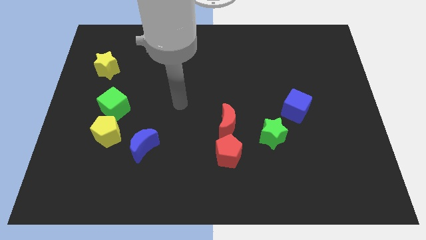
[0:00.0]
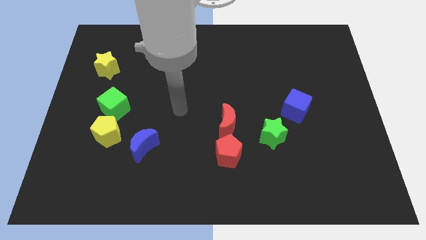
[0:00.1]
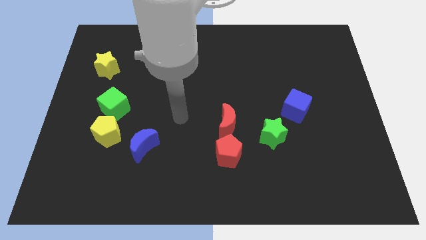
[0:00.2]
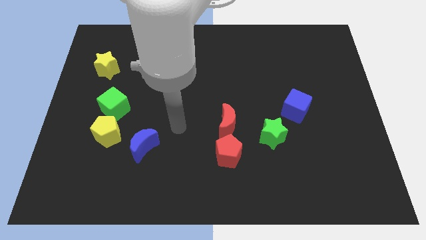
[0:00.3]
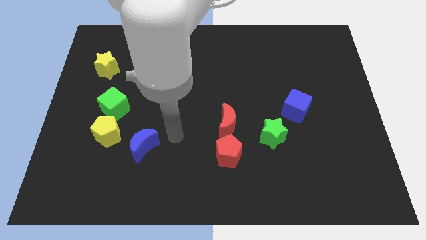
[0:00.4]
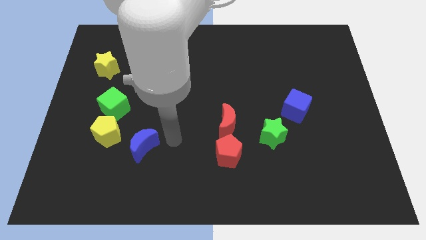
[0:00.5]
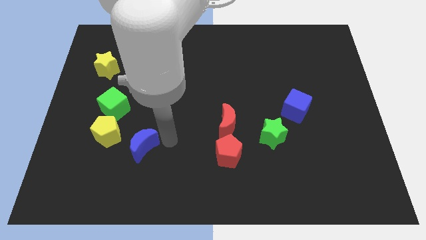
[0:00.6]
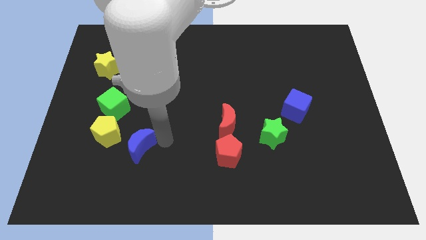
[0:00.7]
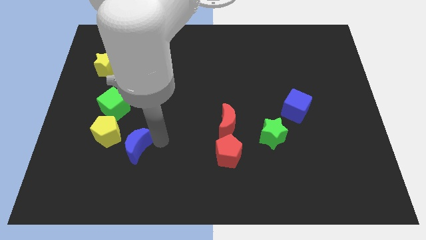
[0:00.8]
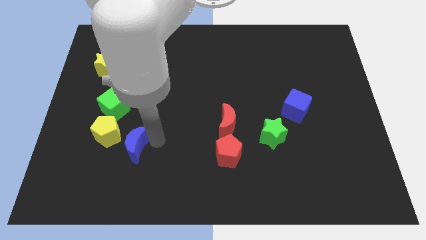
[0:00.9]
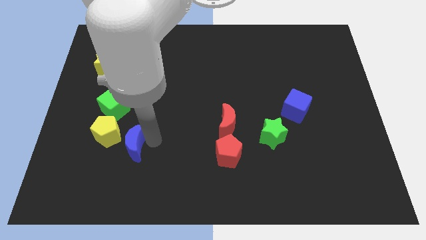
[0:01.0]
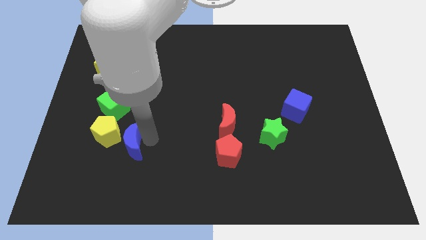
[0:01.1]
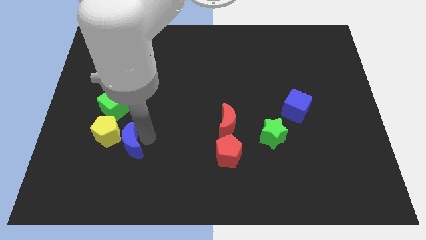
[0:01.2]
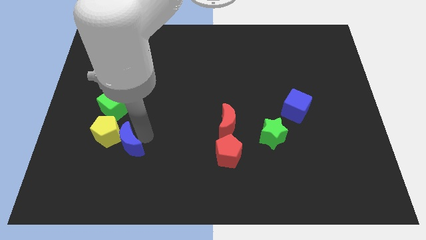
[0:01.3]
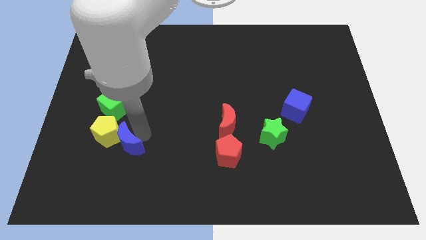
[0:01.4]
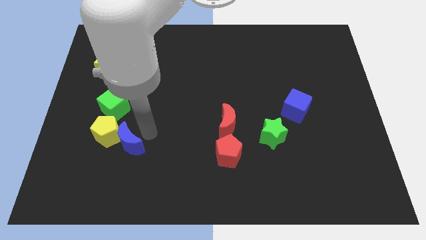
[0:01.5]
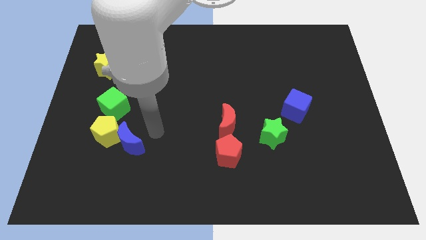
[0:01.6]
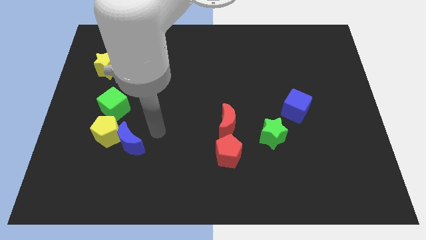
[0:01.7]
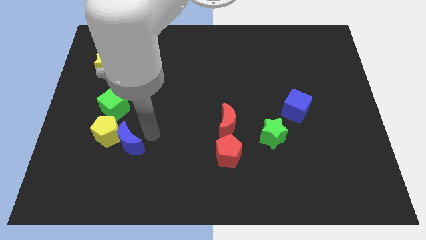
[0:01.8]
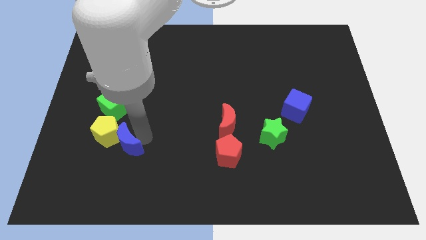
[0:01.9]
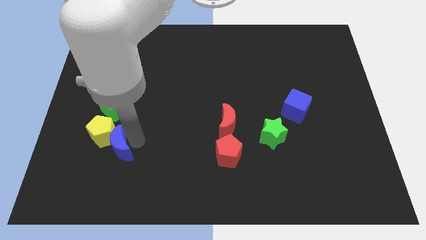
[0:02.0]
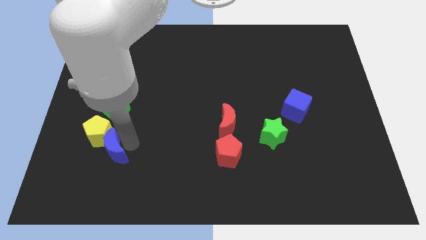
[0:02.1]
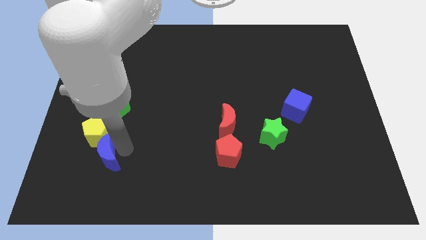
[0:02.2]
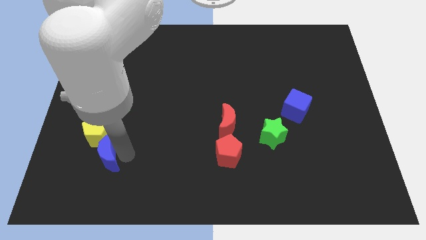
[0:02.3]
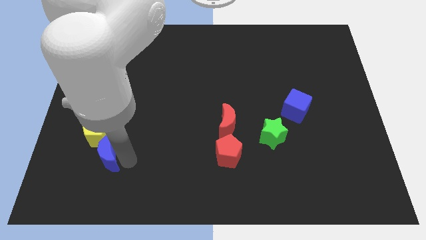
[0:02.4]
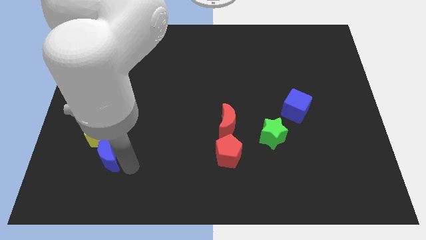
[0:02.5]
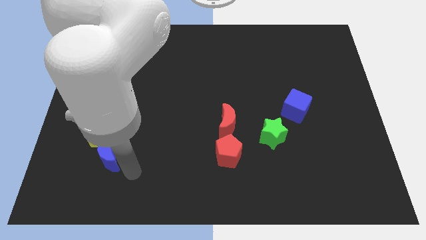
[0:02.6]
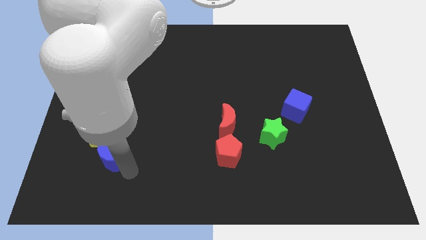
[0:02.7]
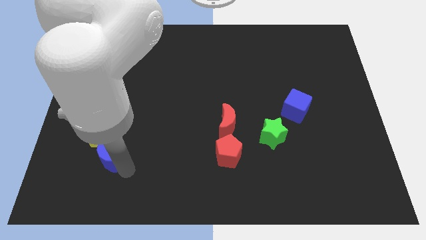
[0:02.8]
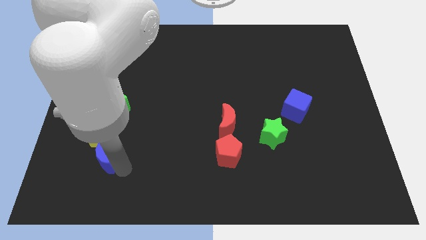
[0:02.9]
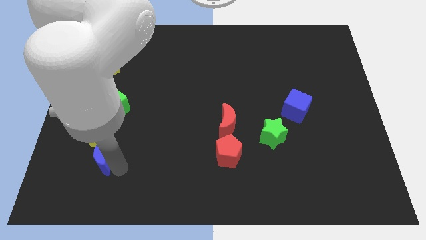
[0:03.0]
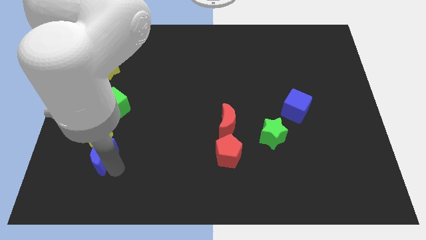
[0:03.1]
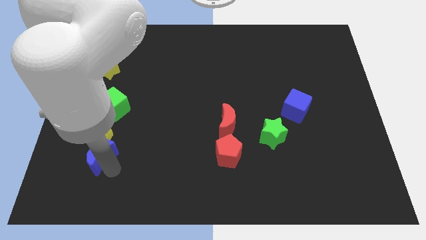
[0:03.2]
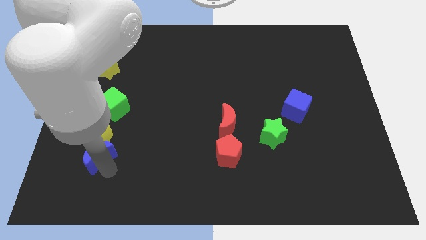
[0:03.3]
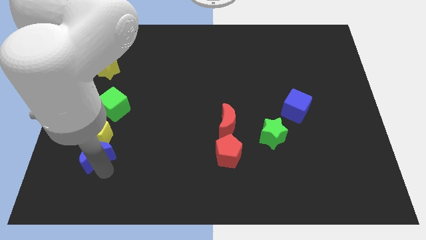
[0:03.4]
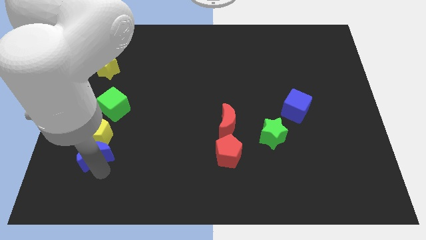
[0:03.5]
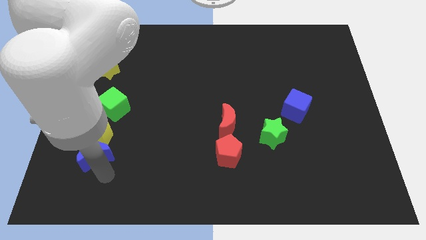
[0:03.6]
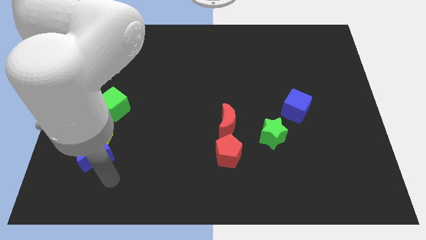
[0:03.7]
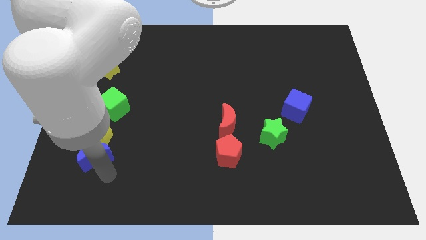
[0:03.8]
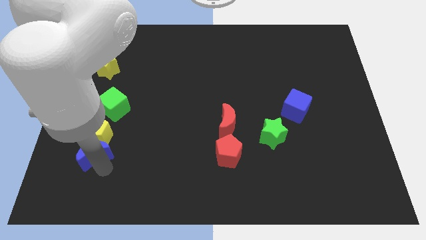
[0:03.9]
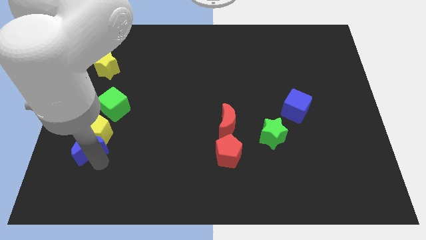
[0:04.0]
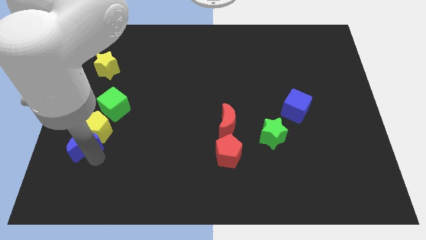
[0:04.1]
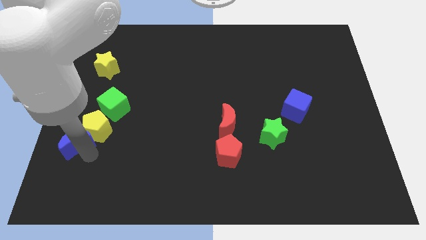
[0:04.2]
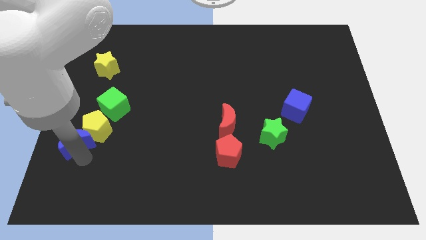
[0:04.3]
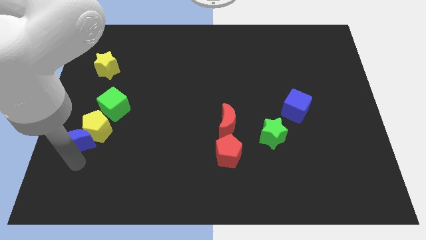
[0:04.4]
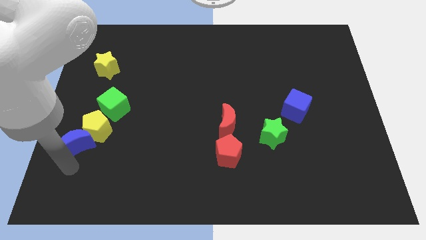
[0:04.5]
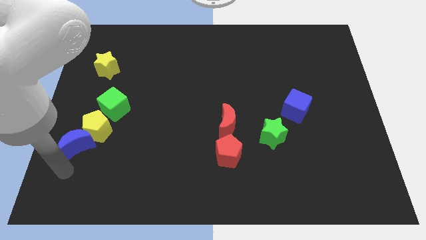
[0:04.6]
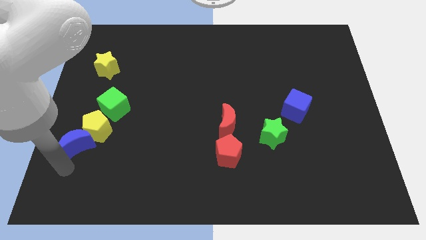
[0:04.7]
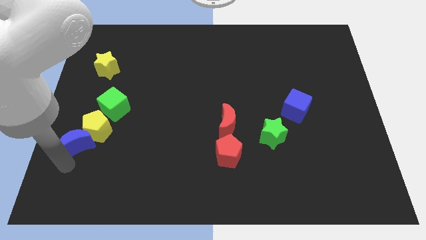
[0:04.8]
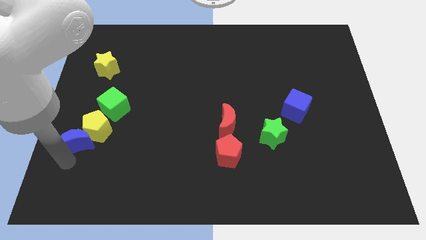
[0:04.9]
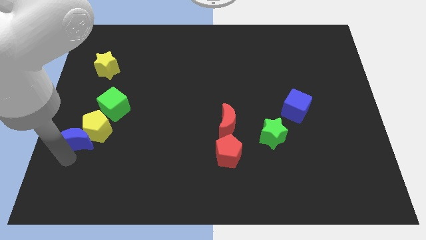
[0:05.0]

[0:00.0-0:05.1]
slightly slide the blue moon diagonally upwards and left

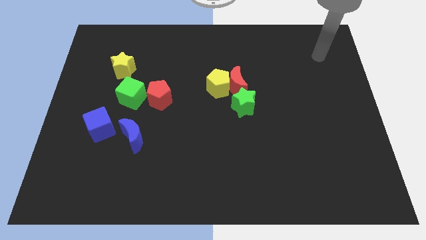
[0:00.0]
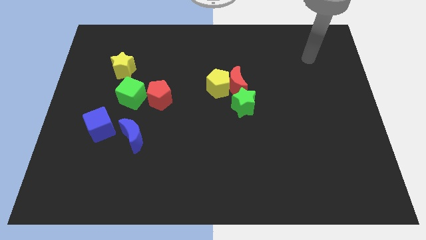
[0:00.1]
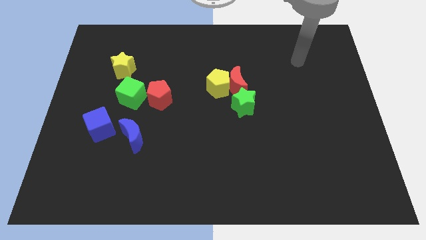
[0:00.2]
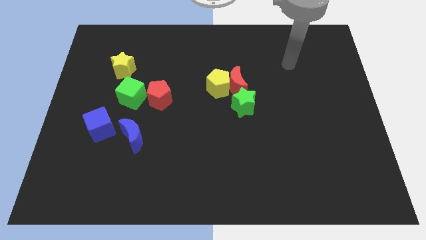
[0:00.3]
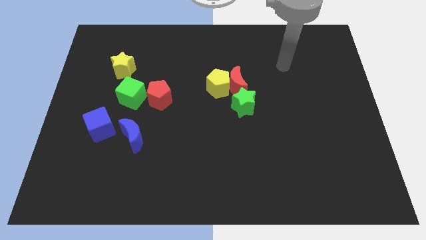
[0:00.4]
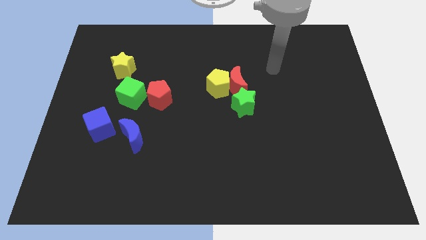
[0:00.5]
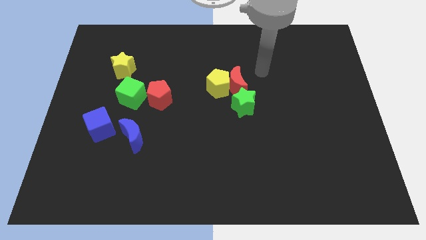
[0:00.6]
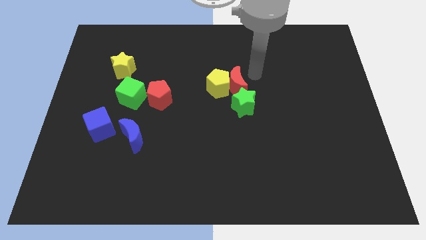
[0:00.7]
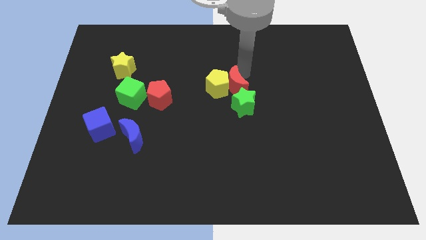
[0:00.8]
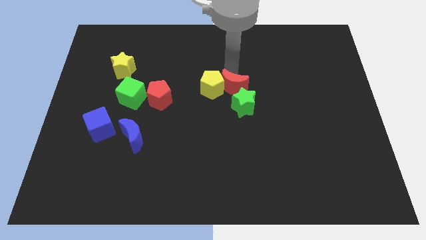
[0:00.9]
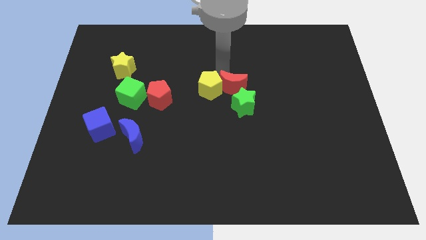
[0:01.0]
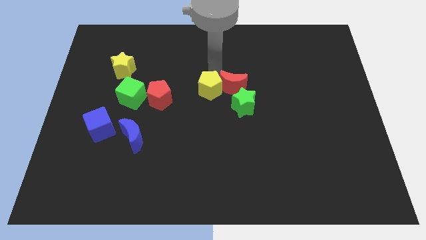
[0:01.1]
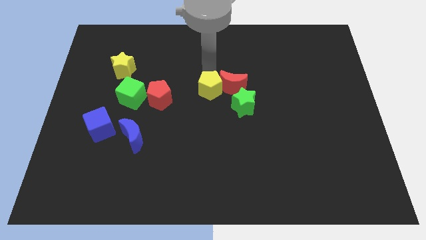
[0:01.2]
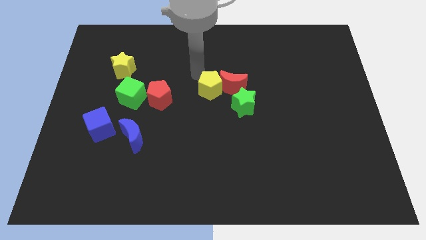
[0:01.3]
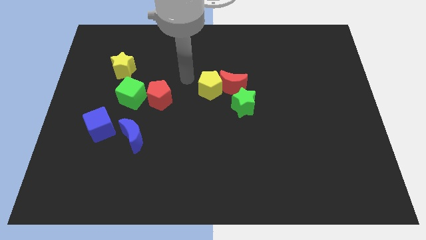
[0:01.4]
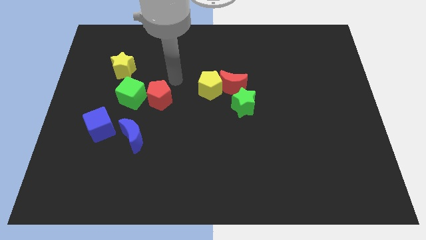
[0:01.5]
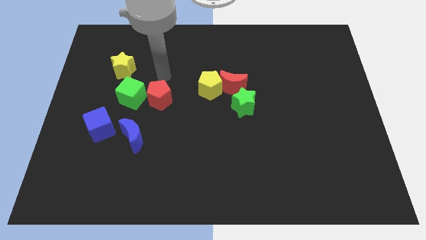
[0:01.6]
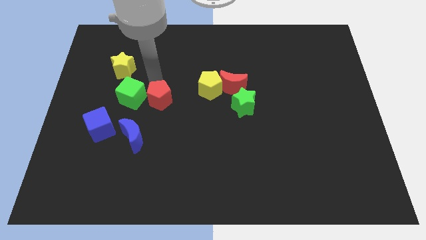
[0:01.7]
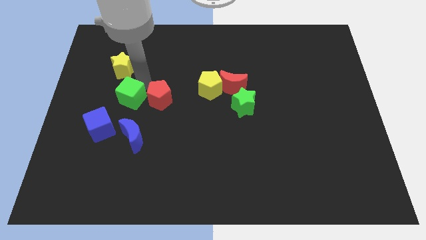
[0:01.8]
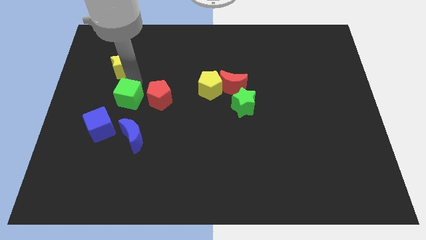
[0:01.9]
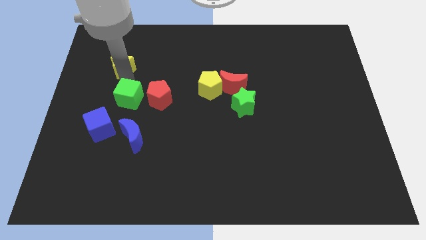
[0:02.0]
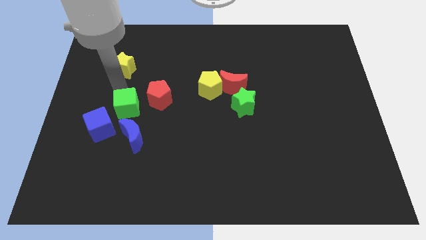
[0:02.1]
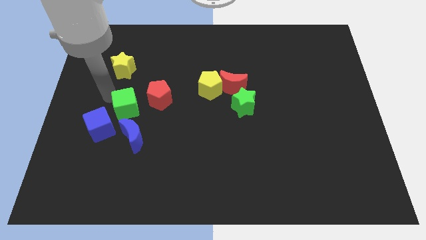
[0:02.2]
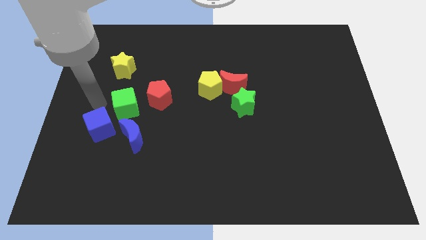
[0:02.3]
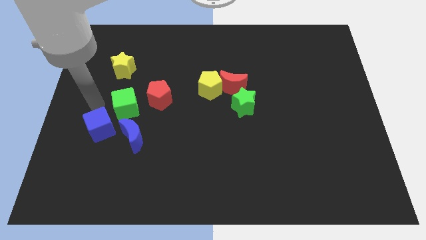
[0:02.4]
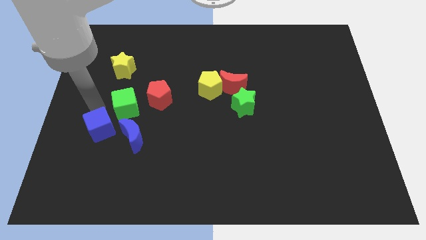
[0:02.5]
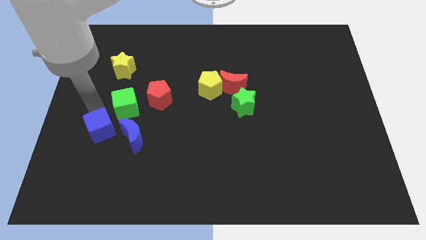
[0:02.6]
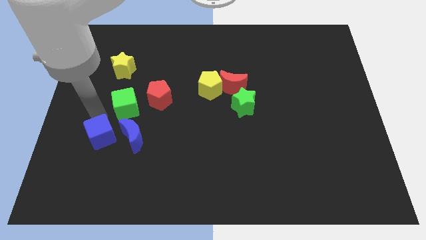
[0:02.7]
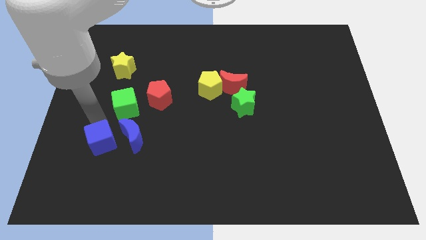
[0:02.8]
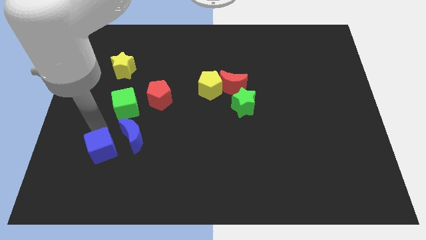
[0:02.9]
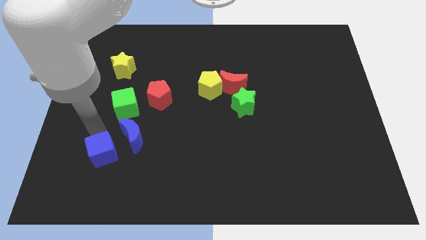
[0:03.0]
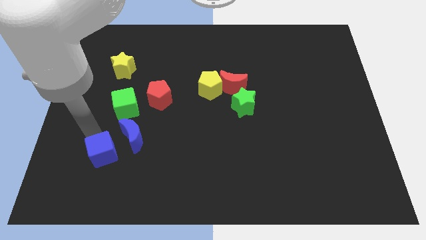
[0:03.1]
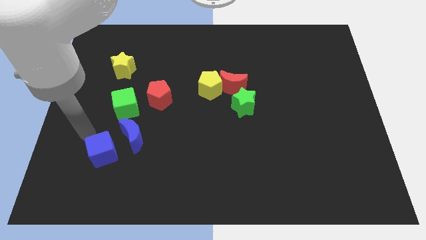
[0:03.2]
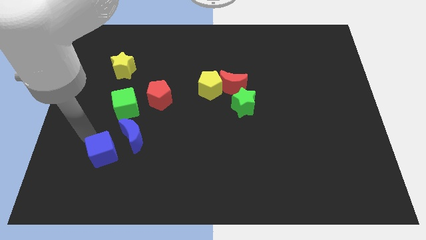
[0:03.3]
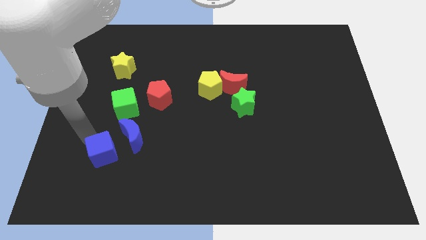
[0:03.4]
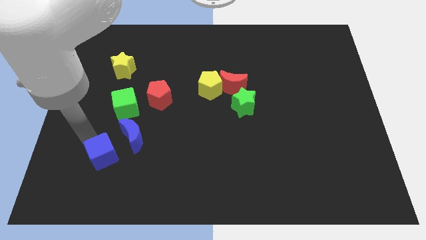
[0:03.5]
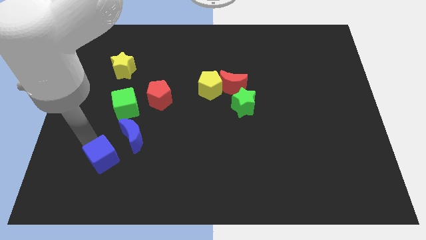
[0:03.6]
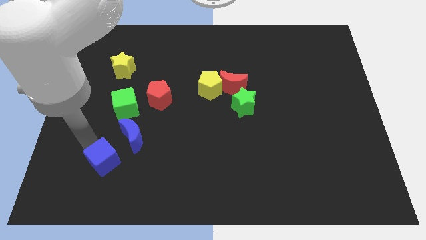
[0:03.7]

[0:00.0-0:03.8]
slightly move the blue cube down and to the right
